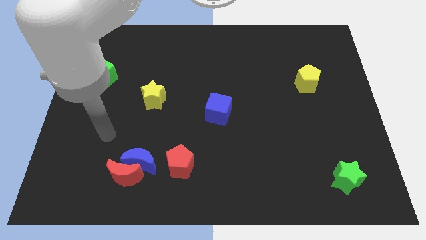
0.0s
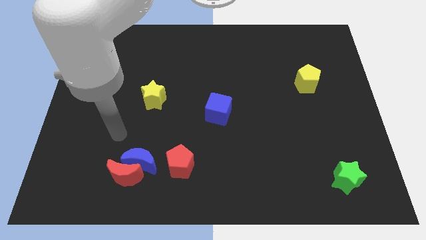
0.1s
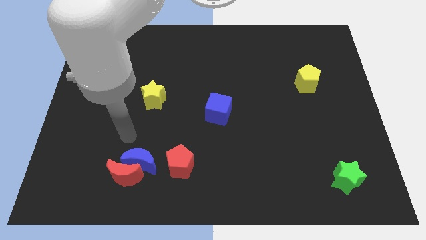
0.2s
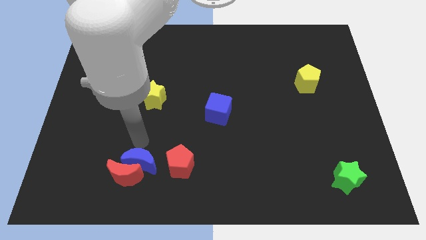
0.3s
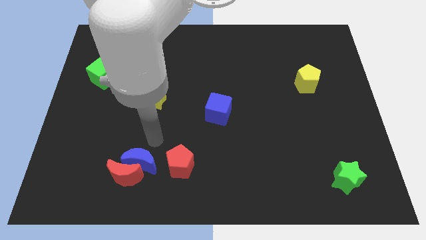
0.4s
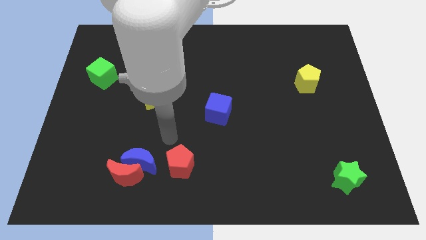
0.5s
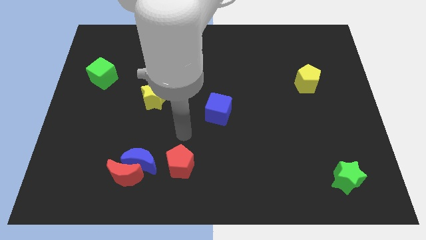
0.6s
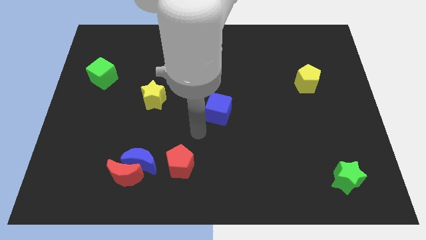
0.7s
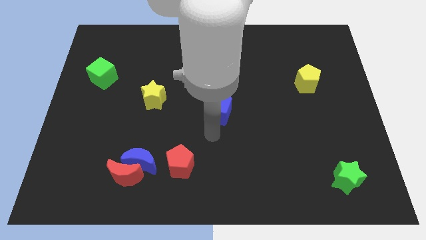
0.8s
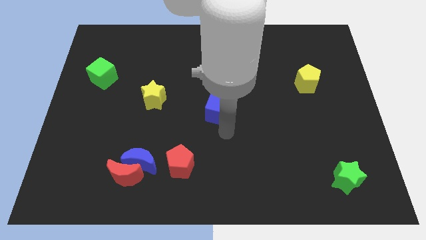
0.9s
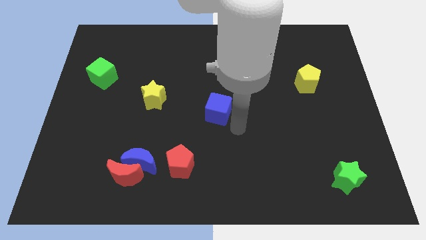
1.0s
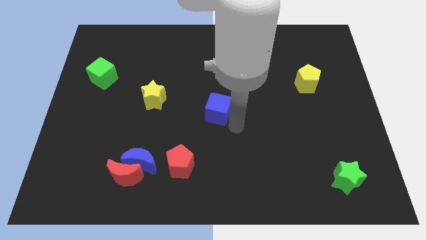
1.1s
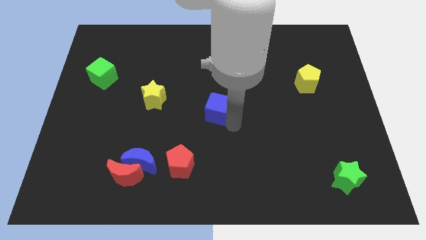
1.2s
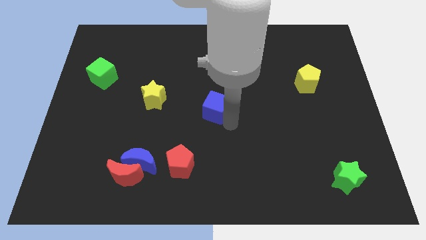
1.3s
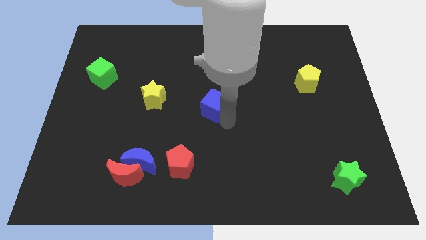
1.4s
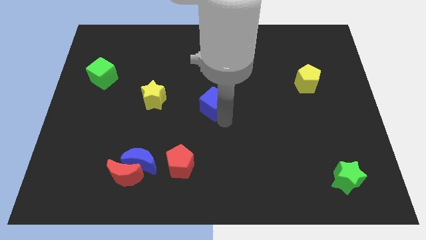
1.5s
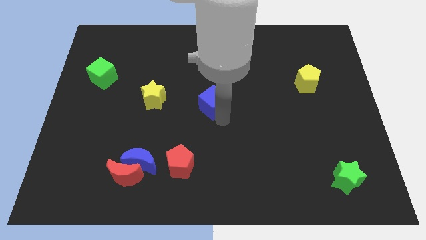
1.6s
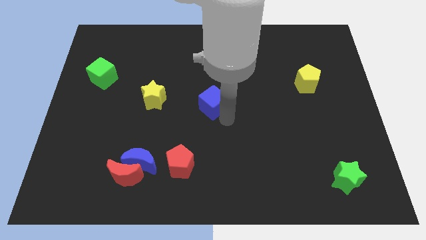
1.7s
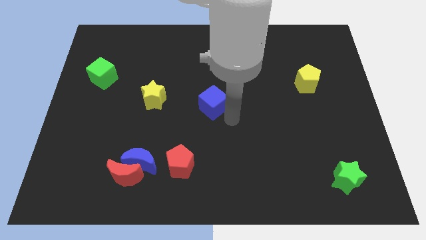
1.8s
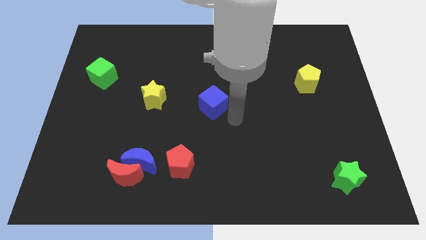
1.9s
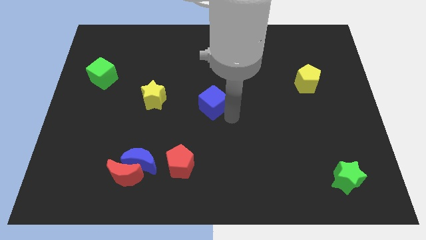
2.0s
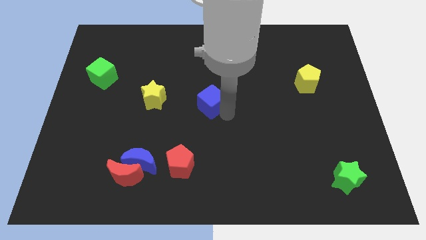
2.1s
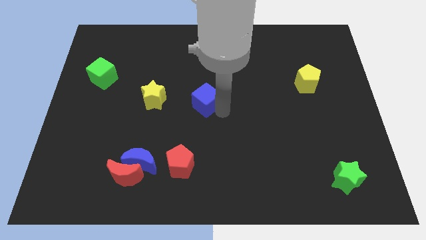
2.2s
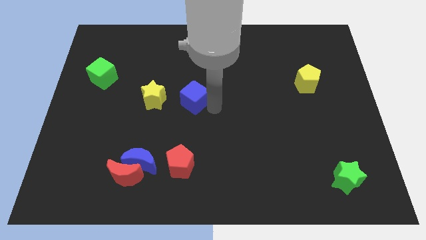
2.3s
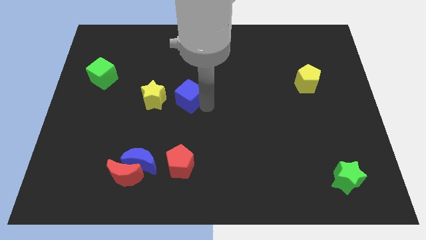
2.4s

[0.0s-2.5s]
slightly slide the blue cube upwards and to the left

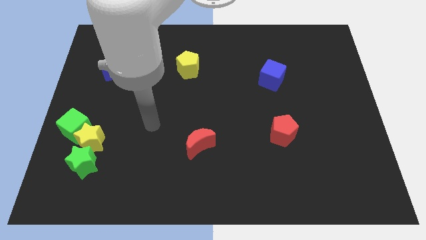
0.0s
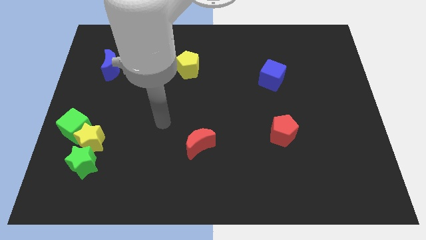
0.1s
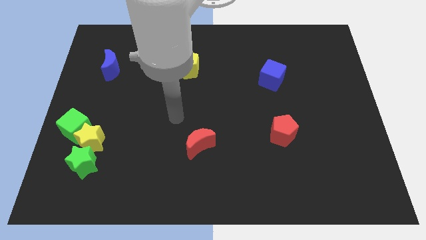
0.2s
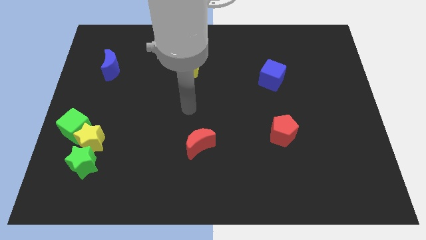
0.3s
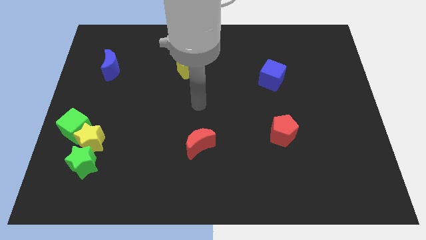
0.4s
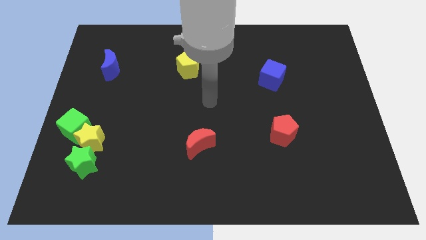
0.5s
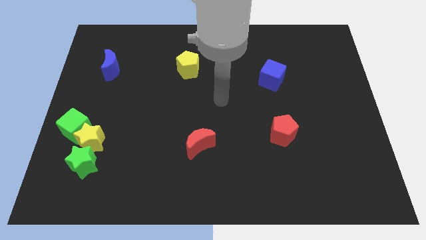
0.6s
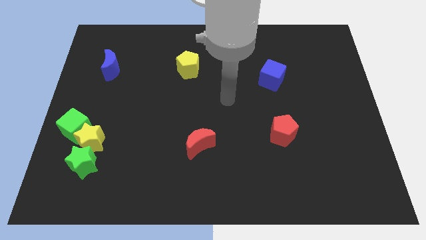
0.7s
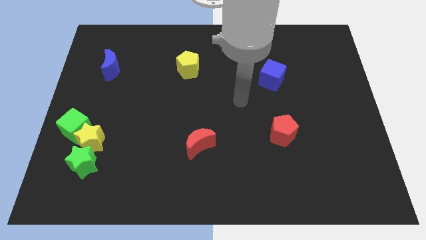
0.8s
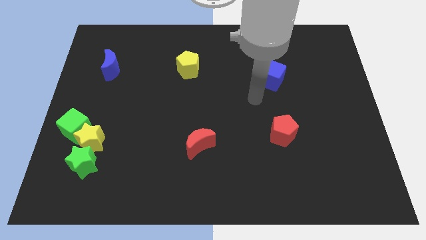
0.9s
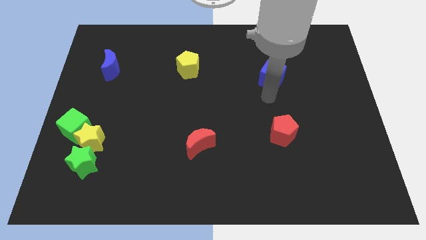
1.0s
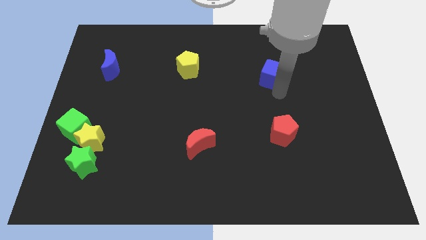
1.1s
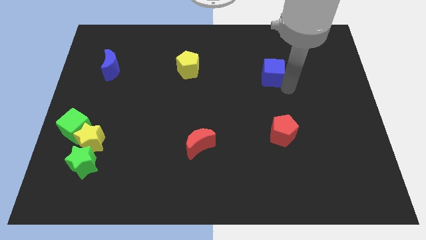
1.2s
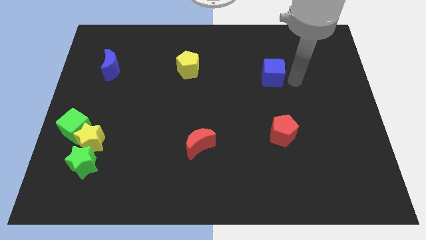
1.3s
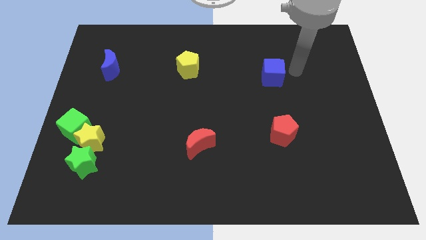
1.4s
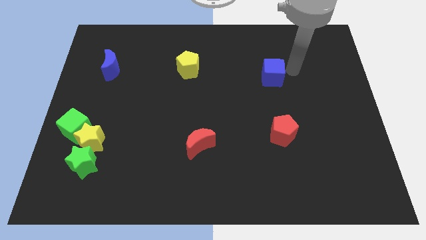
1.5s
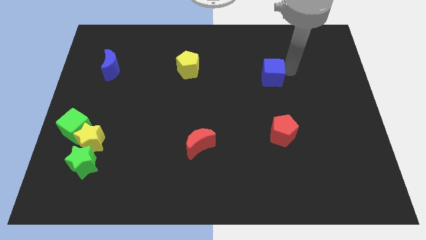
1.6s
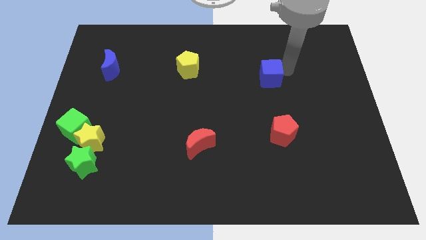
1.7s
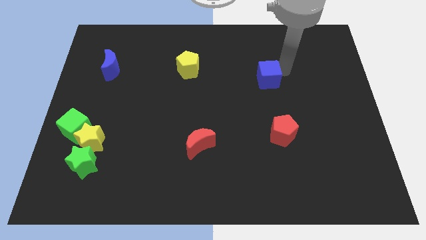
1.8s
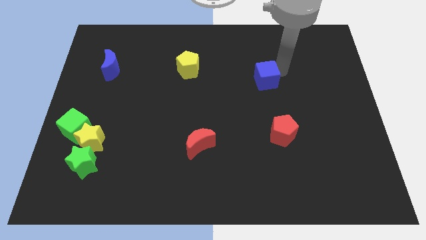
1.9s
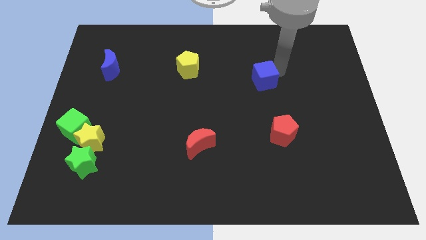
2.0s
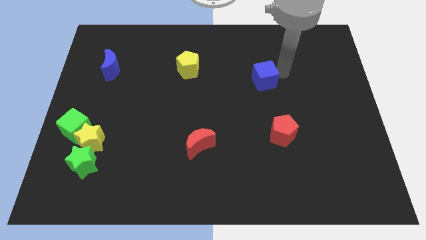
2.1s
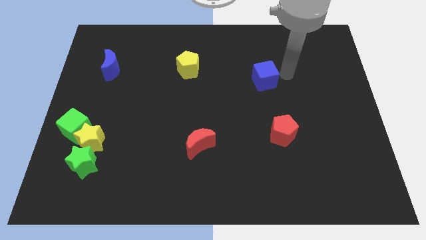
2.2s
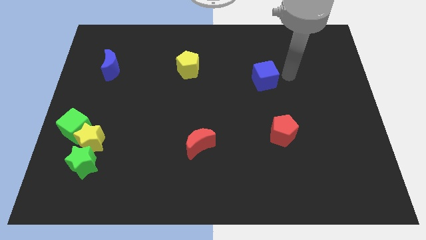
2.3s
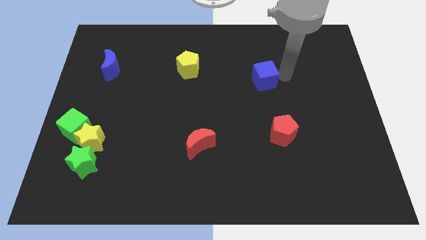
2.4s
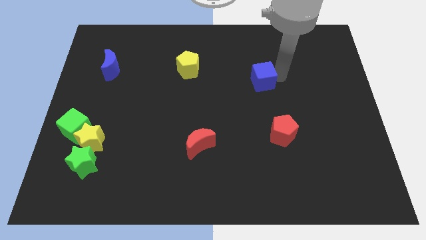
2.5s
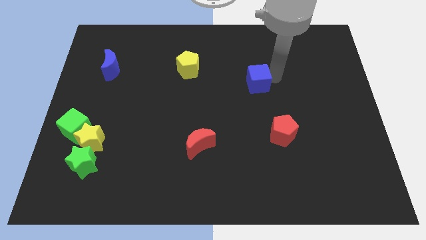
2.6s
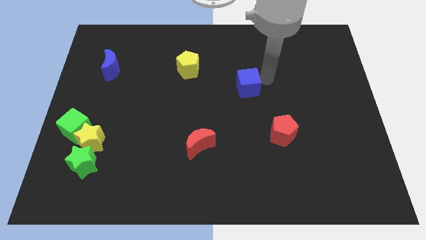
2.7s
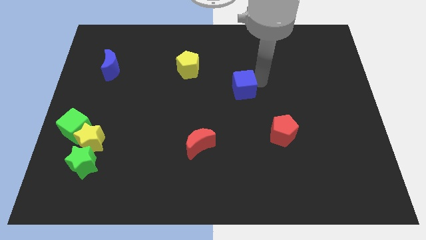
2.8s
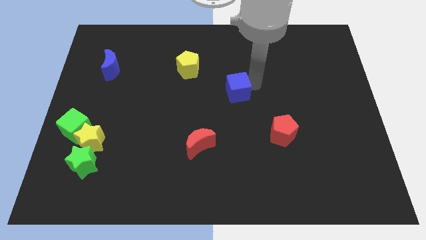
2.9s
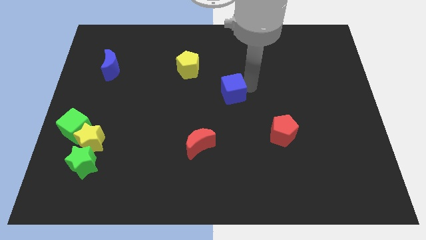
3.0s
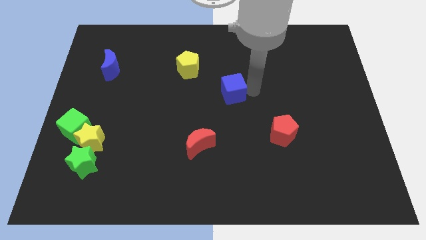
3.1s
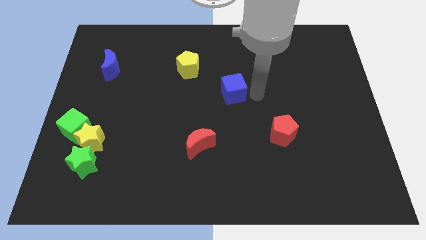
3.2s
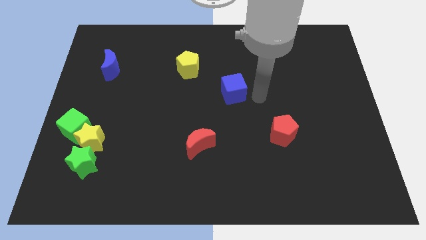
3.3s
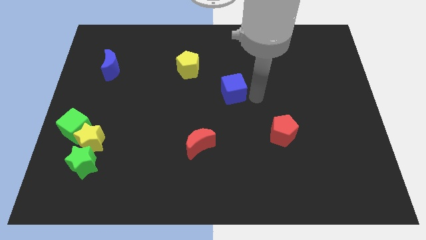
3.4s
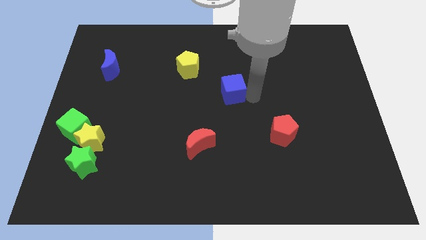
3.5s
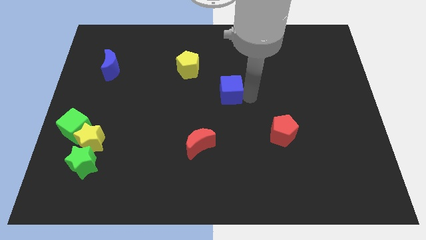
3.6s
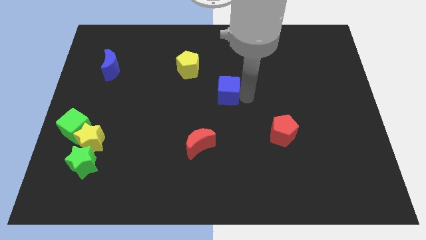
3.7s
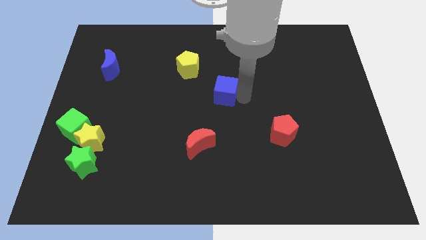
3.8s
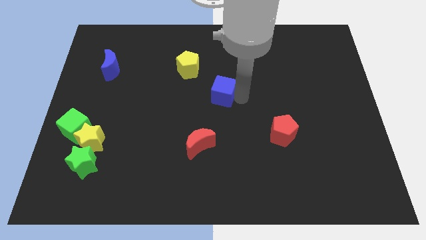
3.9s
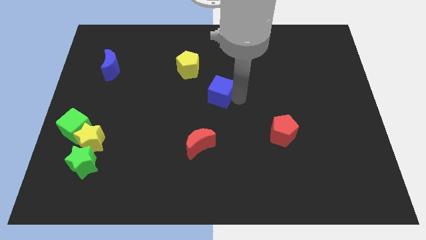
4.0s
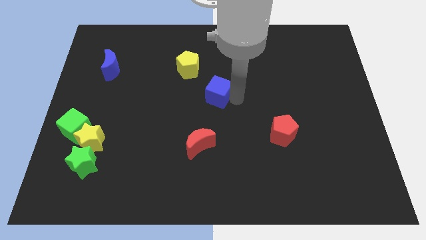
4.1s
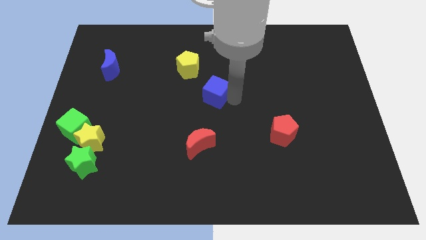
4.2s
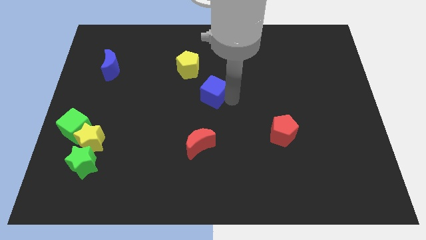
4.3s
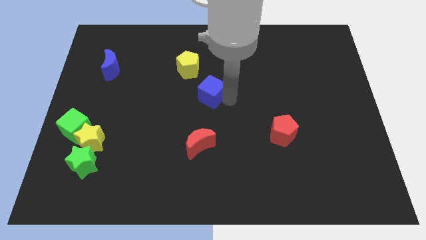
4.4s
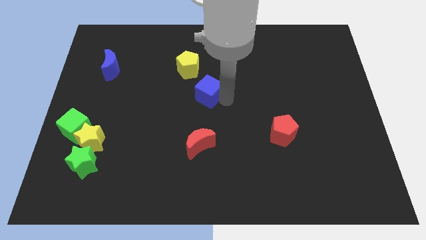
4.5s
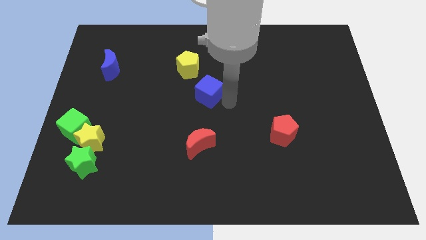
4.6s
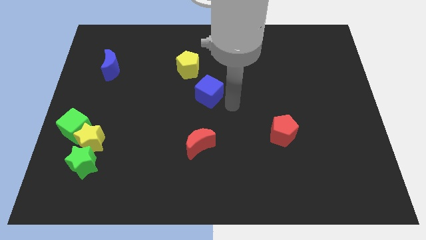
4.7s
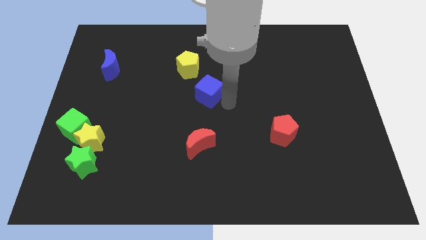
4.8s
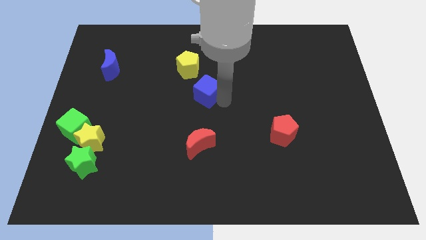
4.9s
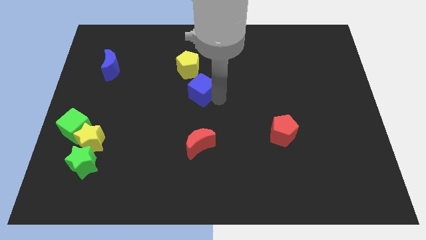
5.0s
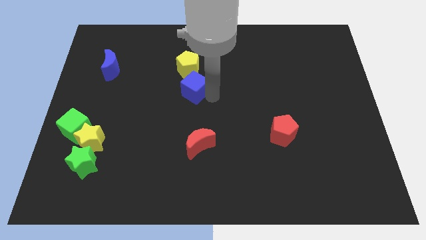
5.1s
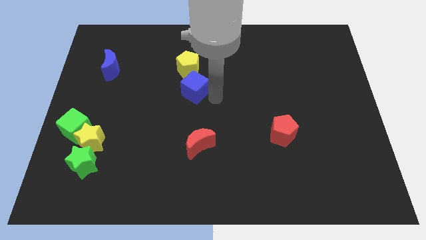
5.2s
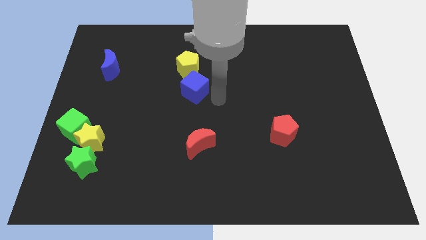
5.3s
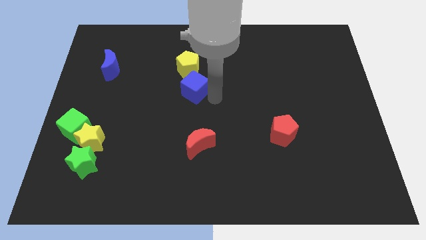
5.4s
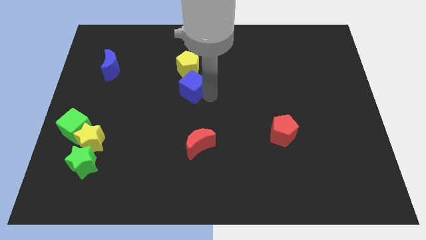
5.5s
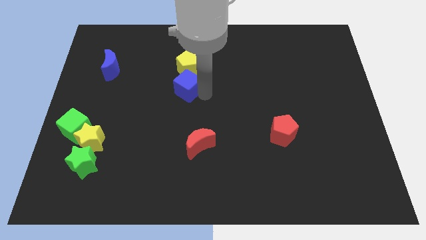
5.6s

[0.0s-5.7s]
move the blue cube left

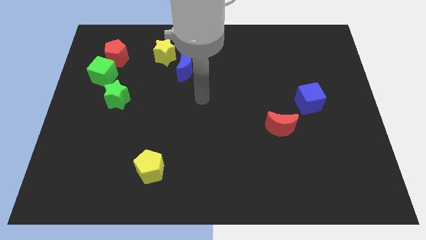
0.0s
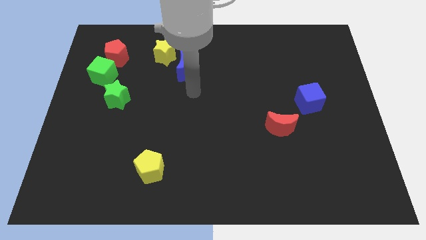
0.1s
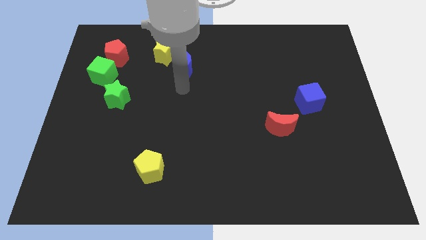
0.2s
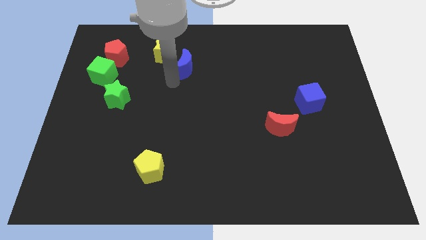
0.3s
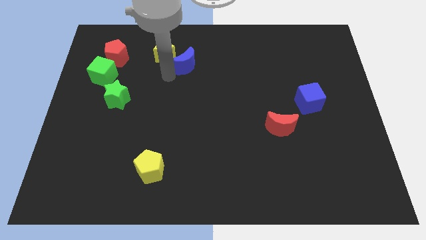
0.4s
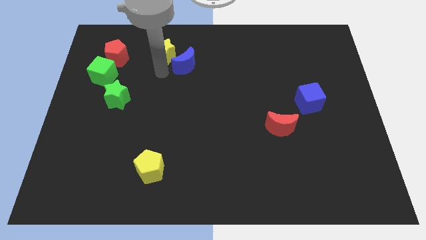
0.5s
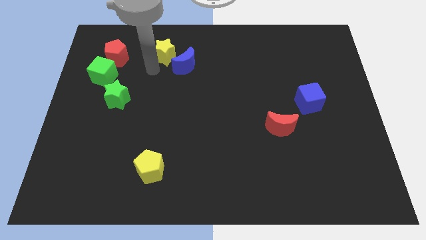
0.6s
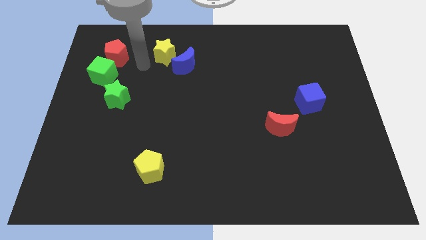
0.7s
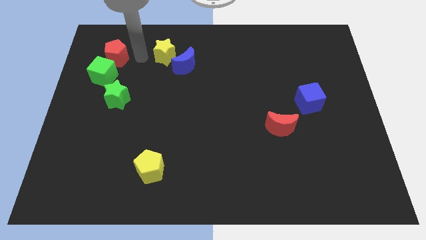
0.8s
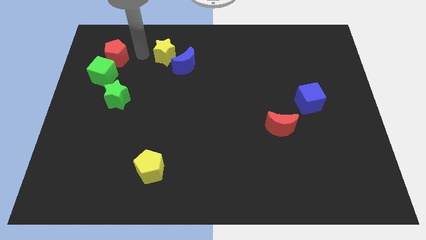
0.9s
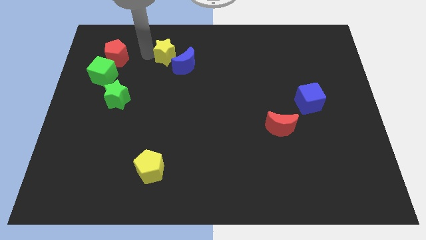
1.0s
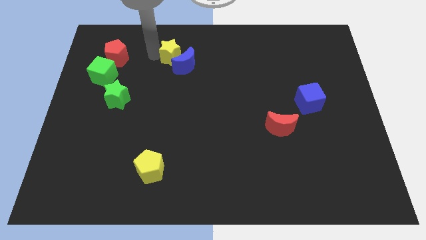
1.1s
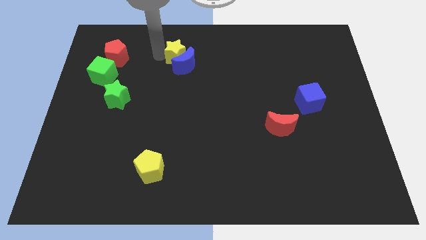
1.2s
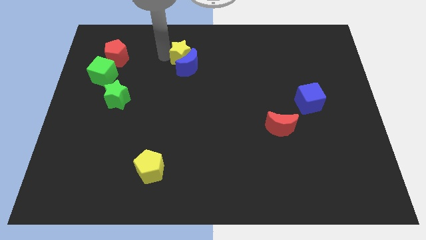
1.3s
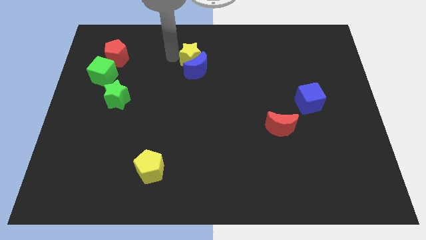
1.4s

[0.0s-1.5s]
slightly slide the yellow star to the right
